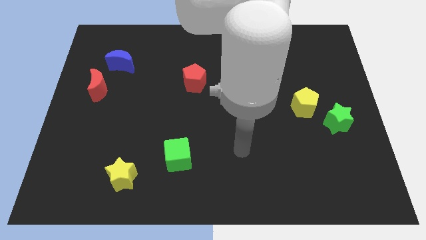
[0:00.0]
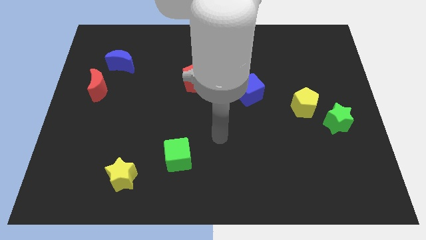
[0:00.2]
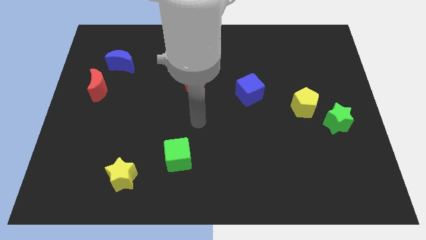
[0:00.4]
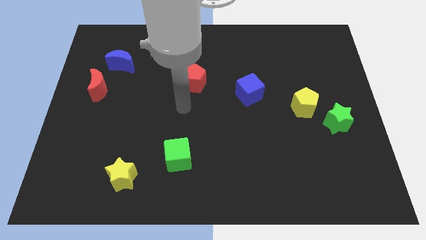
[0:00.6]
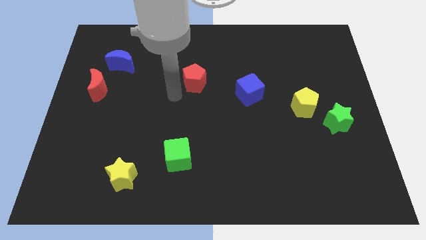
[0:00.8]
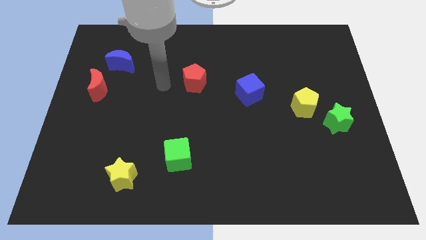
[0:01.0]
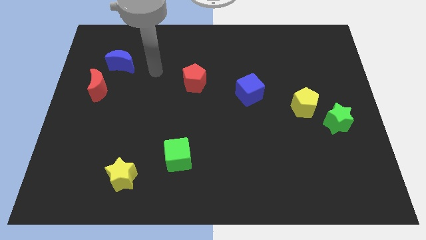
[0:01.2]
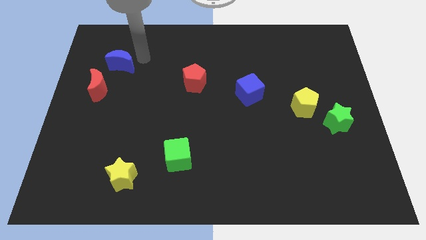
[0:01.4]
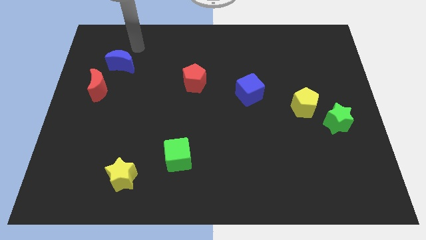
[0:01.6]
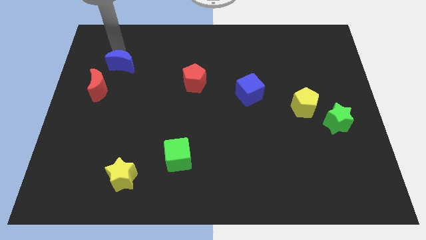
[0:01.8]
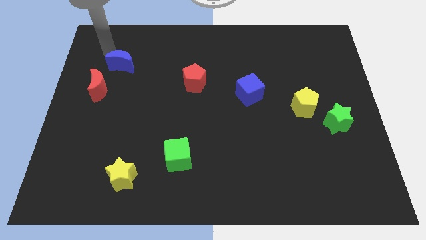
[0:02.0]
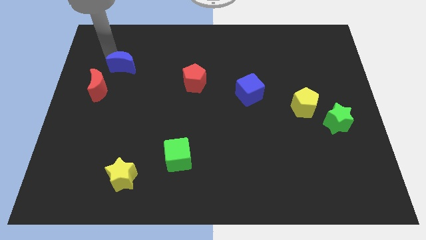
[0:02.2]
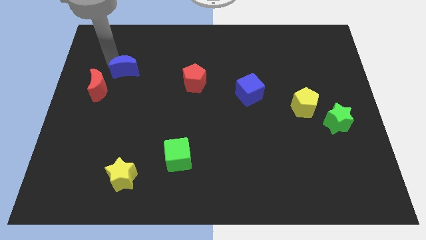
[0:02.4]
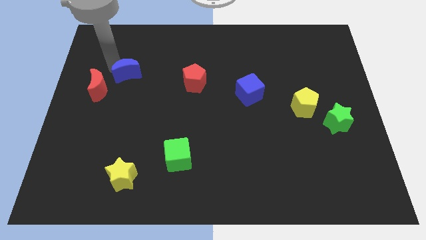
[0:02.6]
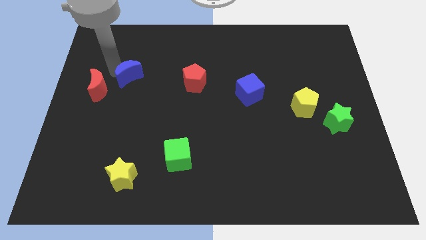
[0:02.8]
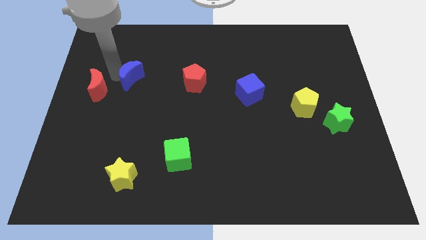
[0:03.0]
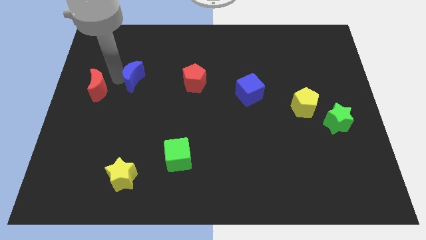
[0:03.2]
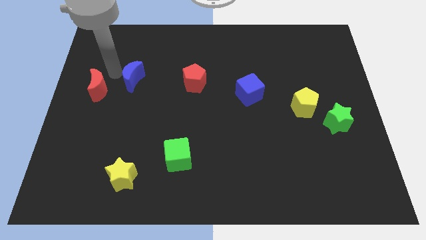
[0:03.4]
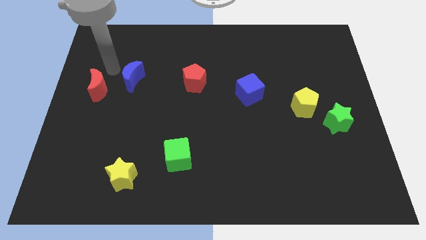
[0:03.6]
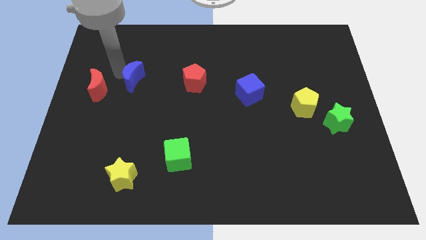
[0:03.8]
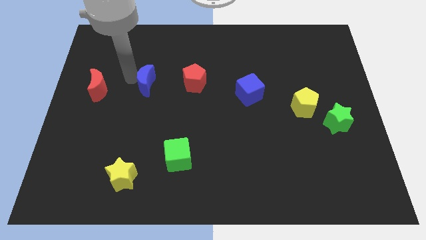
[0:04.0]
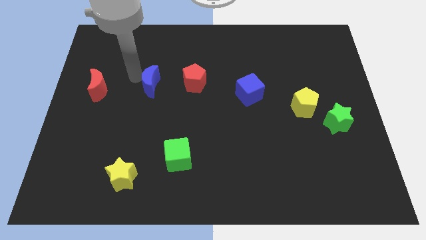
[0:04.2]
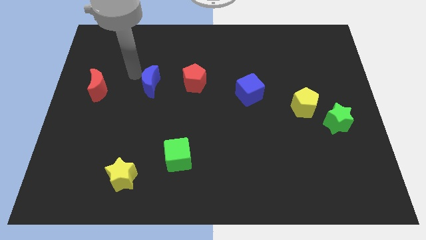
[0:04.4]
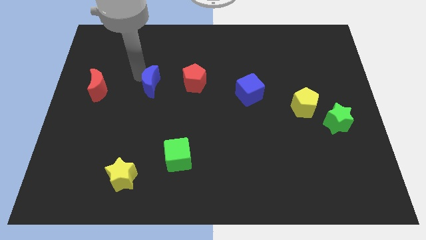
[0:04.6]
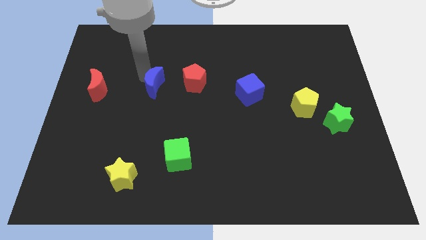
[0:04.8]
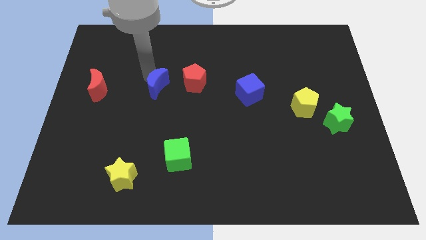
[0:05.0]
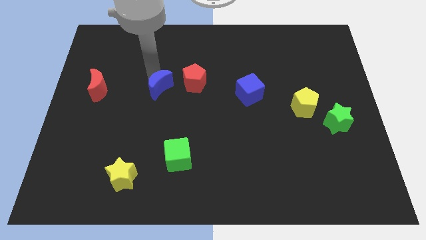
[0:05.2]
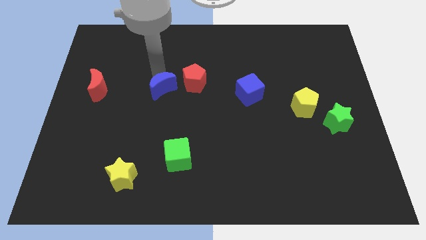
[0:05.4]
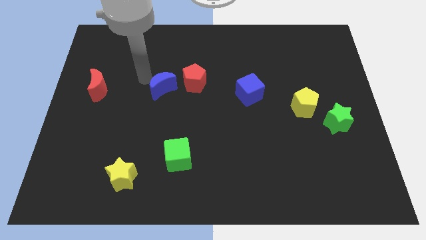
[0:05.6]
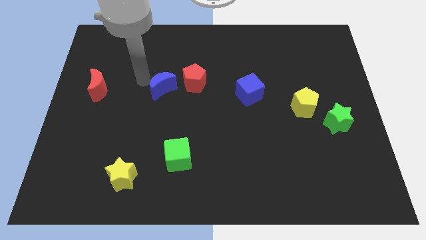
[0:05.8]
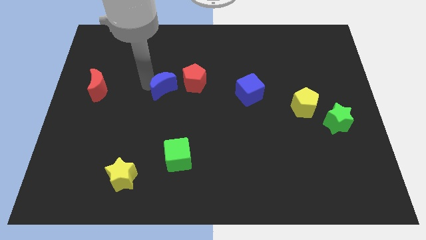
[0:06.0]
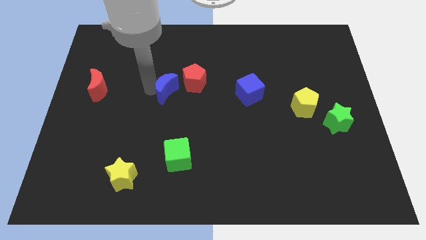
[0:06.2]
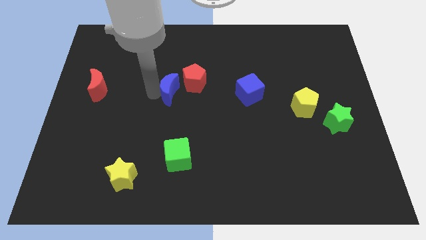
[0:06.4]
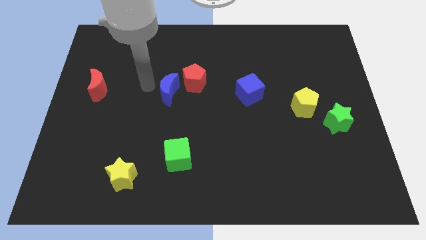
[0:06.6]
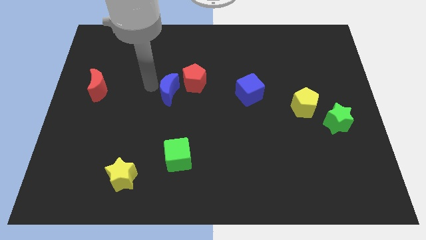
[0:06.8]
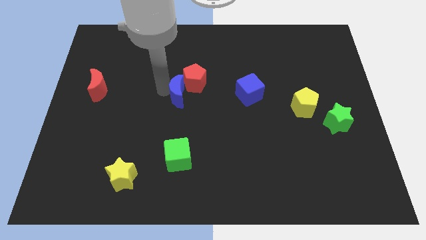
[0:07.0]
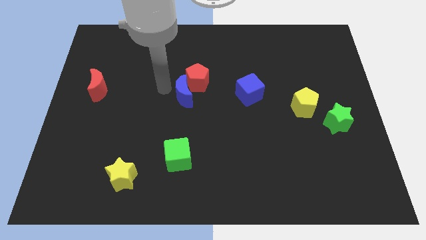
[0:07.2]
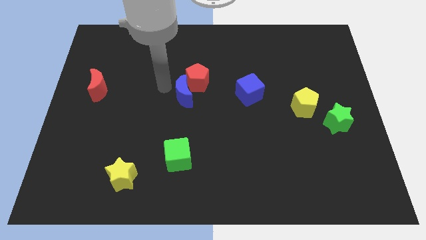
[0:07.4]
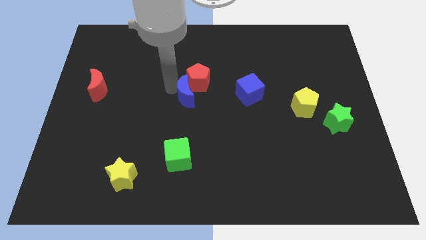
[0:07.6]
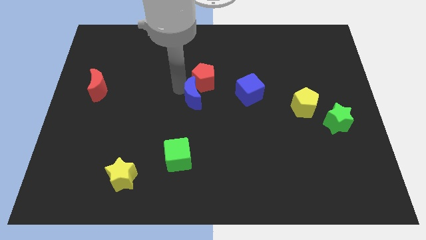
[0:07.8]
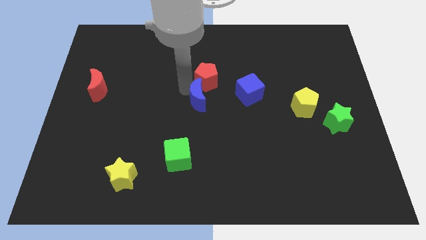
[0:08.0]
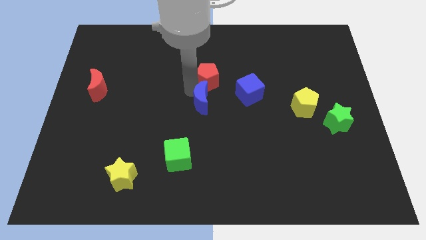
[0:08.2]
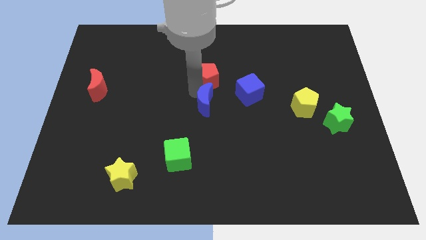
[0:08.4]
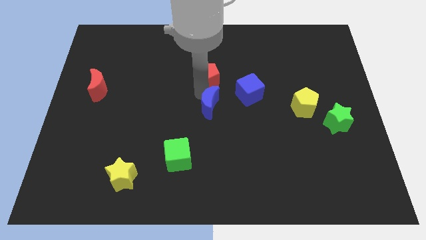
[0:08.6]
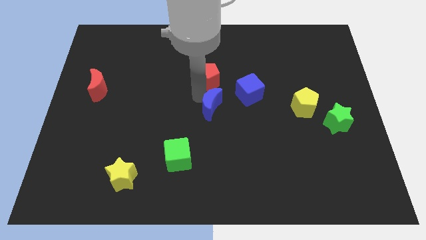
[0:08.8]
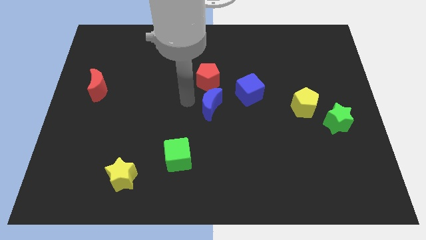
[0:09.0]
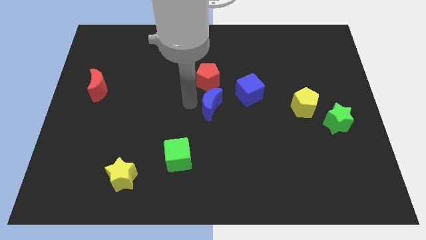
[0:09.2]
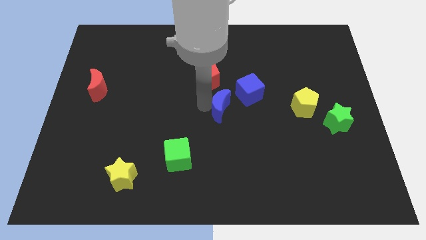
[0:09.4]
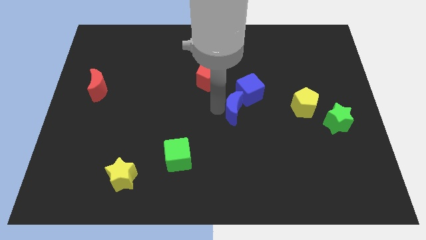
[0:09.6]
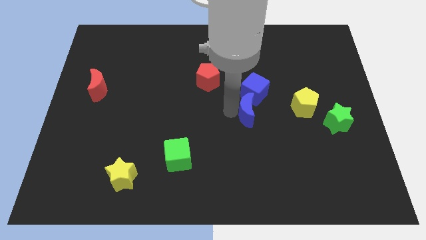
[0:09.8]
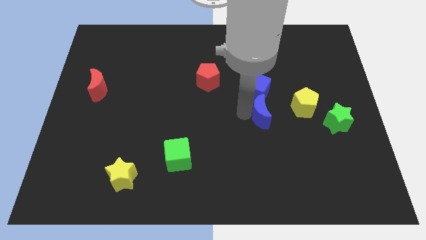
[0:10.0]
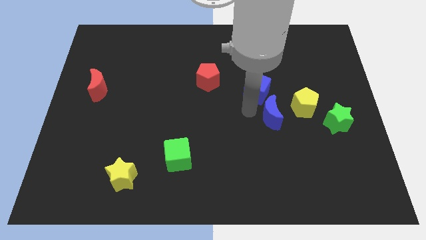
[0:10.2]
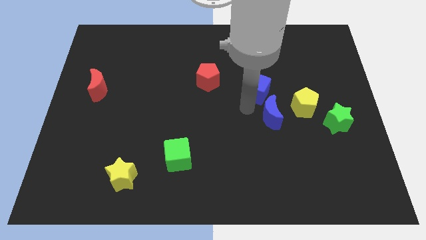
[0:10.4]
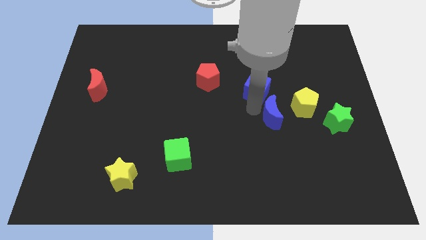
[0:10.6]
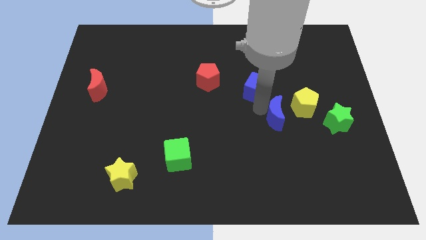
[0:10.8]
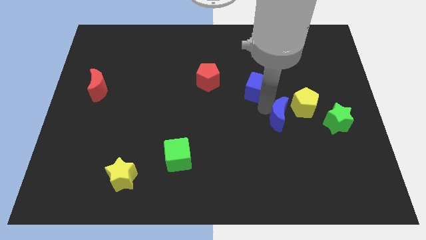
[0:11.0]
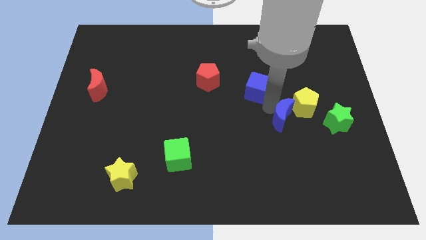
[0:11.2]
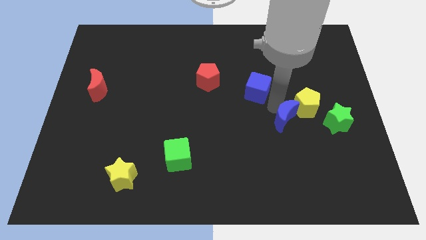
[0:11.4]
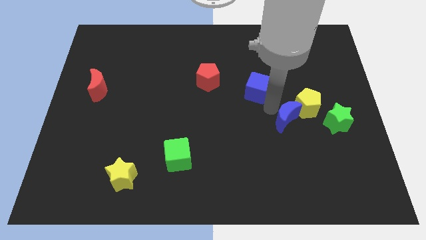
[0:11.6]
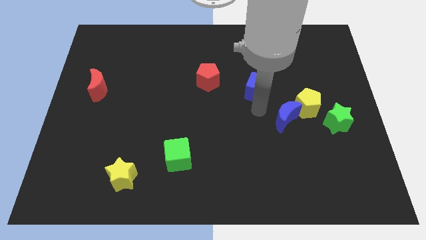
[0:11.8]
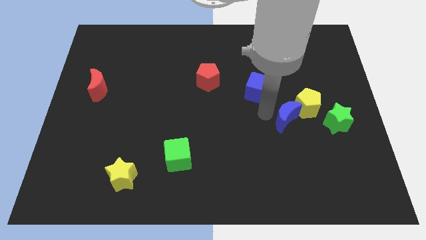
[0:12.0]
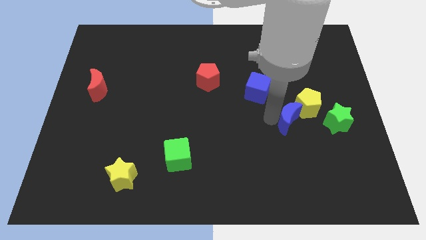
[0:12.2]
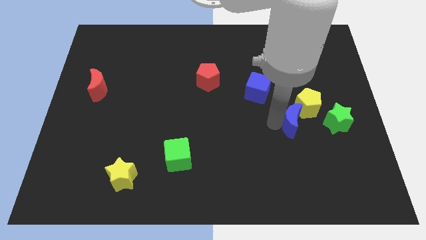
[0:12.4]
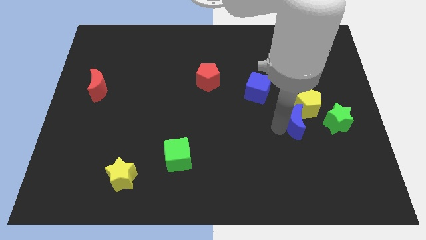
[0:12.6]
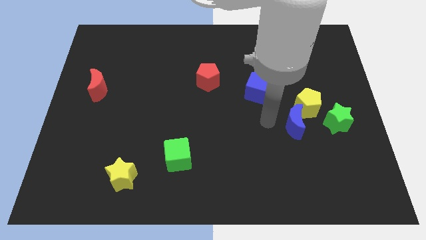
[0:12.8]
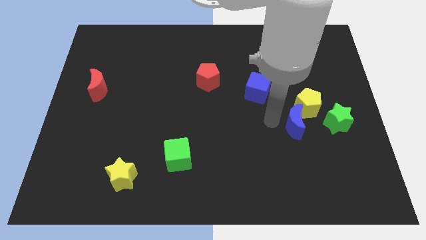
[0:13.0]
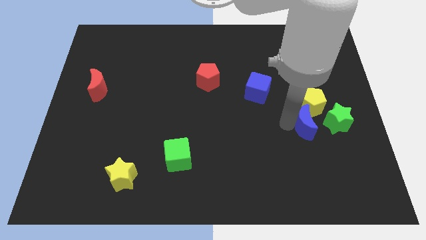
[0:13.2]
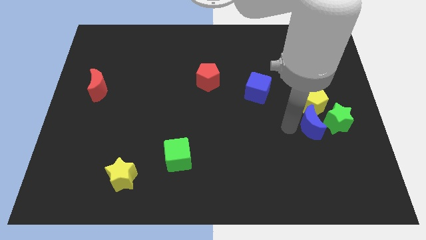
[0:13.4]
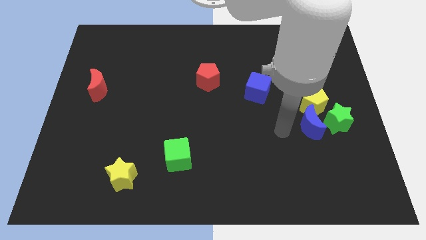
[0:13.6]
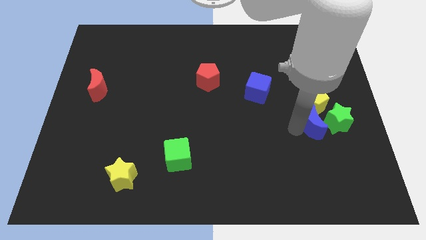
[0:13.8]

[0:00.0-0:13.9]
push the blue moon to the green star

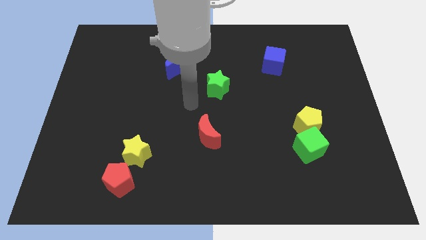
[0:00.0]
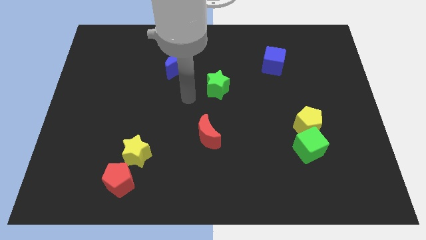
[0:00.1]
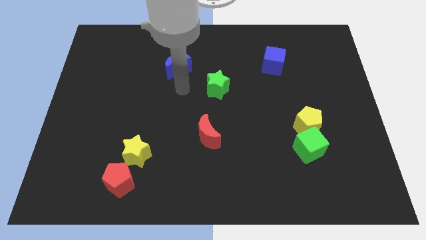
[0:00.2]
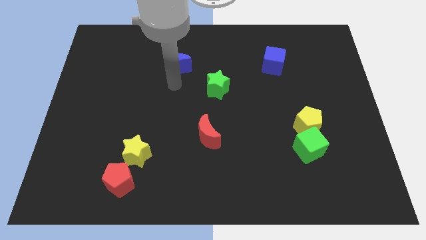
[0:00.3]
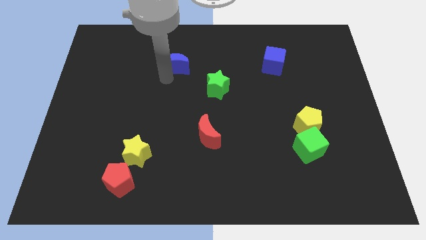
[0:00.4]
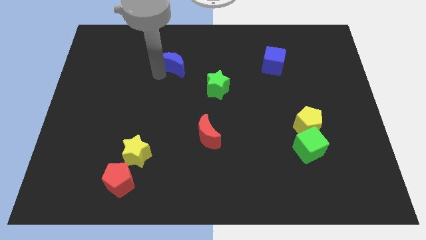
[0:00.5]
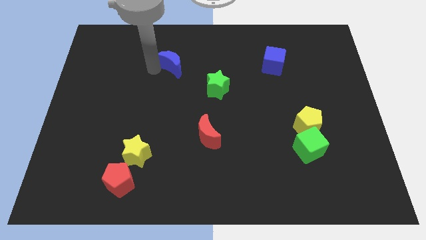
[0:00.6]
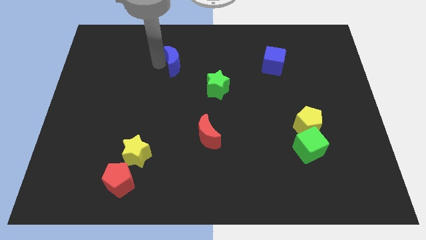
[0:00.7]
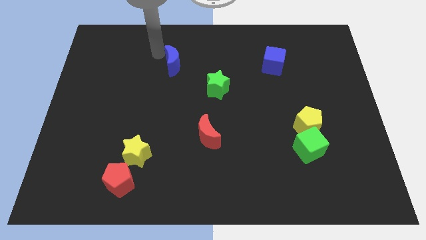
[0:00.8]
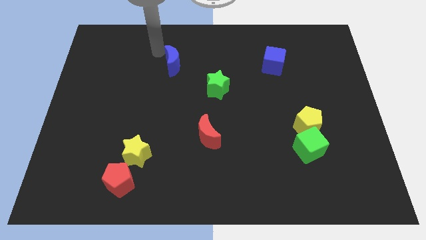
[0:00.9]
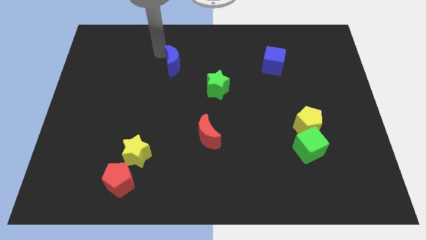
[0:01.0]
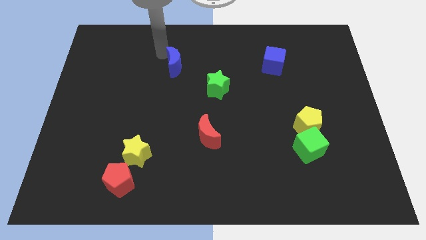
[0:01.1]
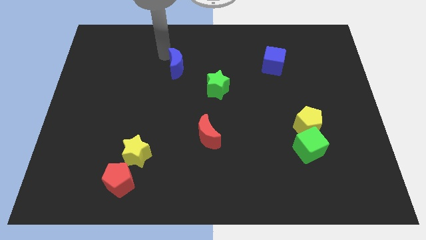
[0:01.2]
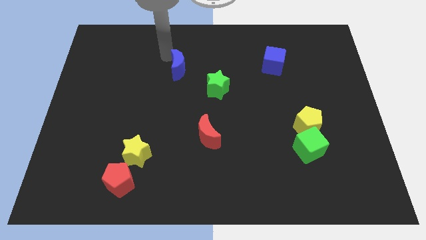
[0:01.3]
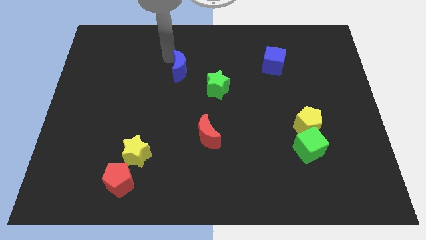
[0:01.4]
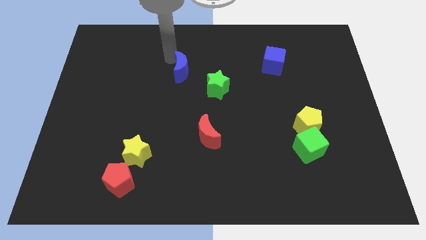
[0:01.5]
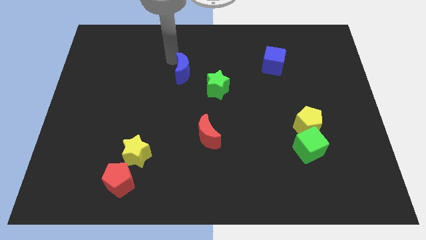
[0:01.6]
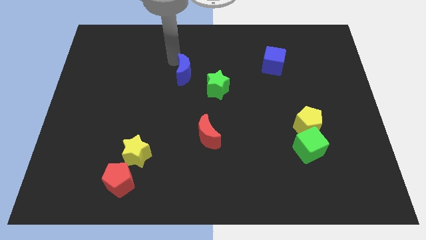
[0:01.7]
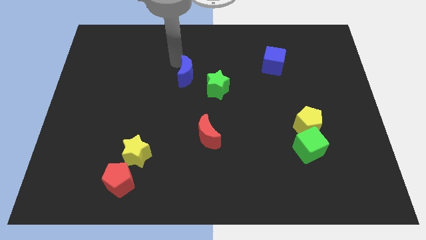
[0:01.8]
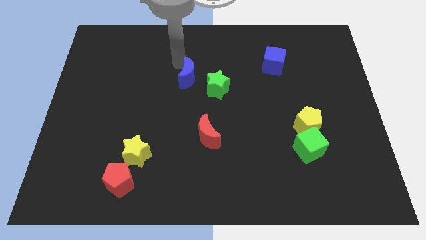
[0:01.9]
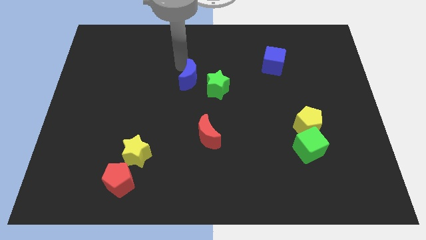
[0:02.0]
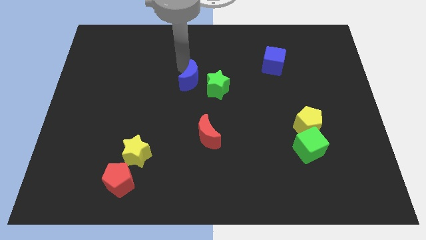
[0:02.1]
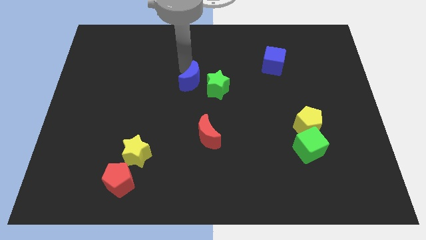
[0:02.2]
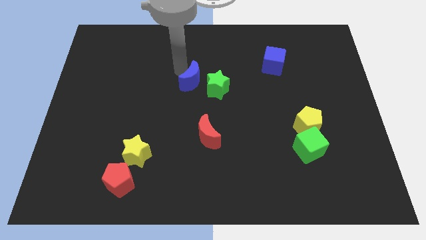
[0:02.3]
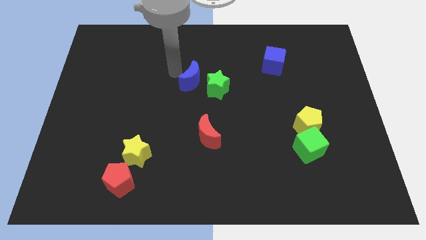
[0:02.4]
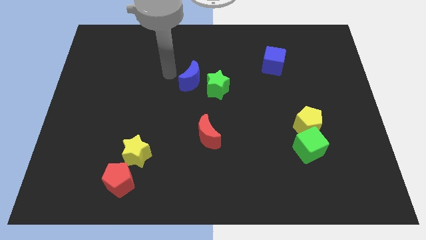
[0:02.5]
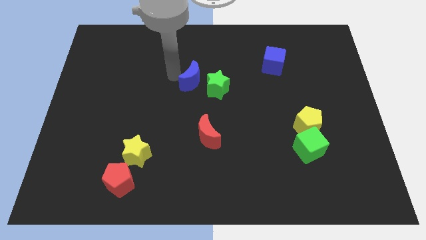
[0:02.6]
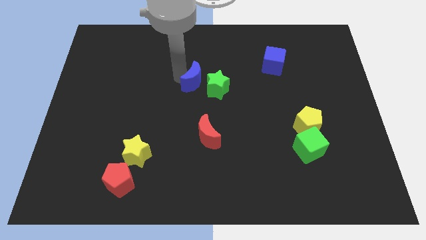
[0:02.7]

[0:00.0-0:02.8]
put the blue moon towards the green star
